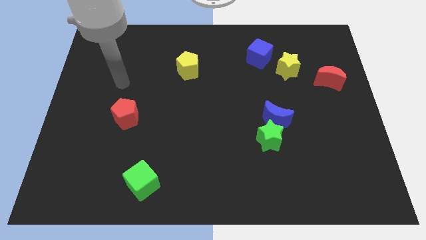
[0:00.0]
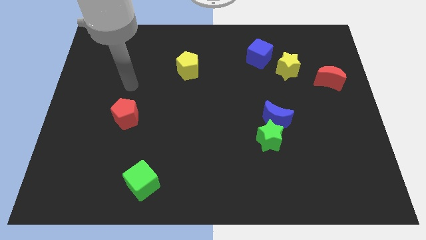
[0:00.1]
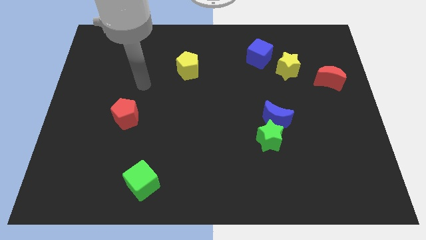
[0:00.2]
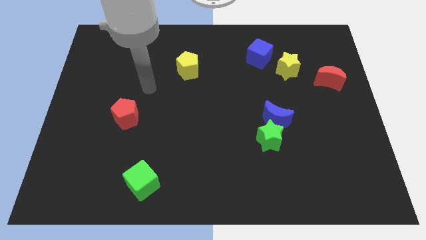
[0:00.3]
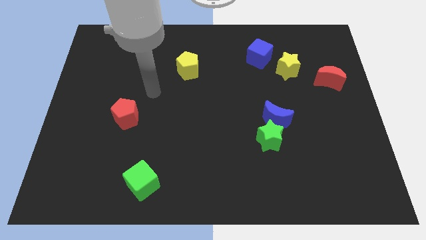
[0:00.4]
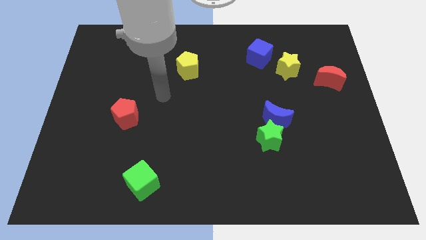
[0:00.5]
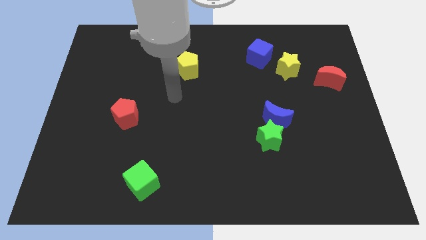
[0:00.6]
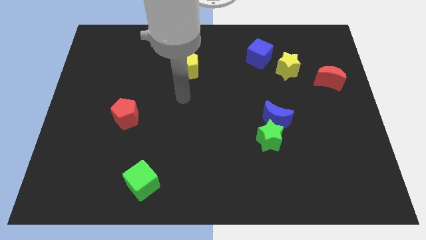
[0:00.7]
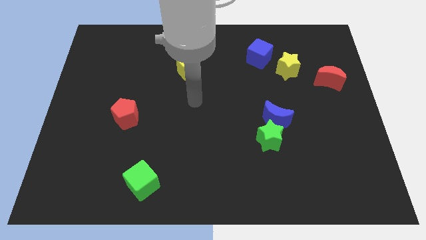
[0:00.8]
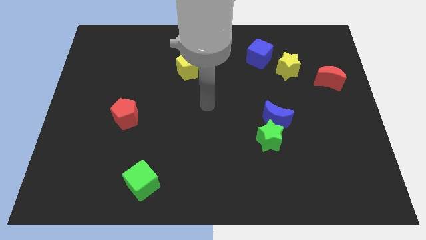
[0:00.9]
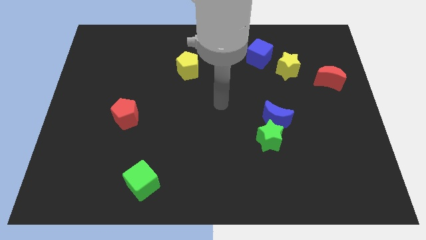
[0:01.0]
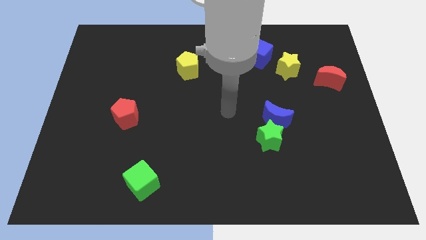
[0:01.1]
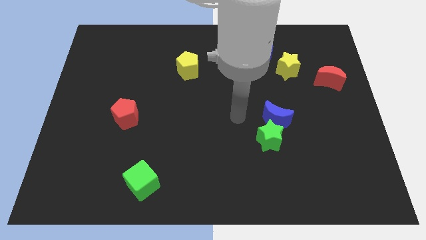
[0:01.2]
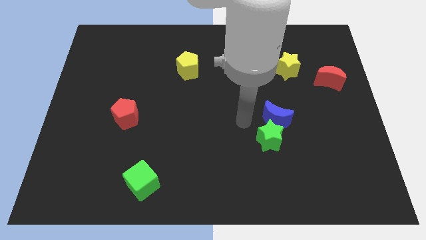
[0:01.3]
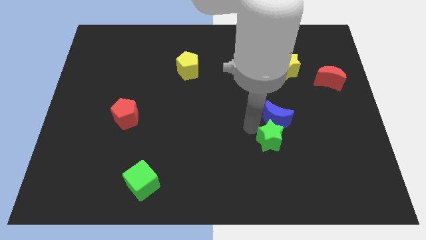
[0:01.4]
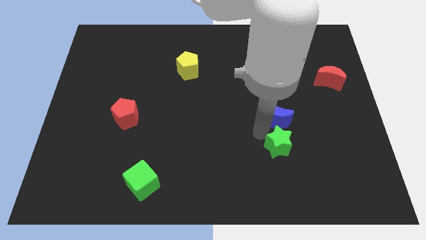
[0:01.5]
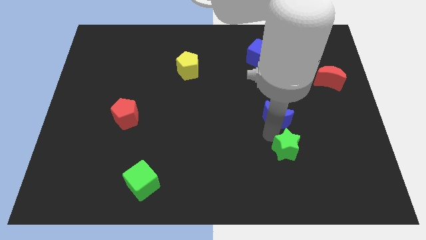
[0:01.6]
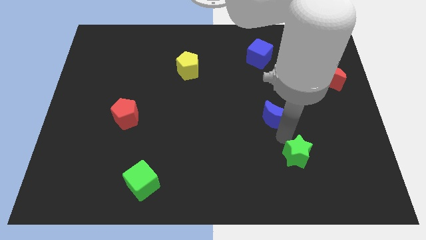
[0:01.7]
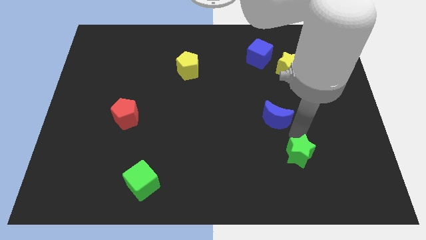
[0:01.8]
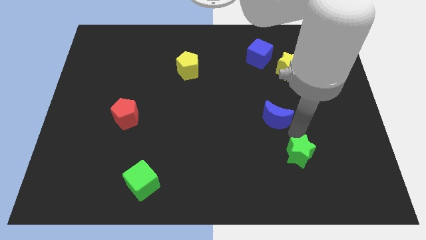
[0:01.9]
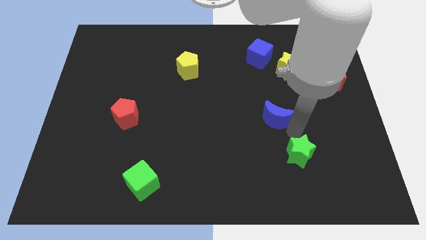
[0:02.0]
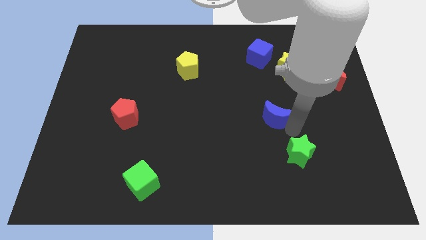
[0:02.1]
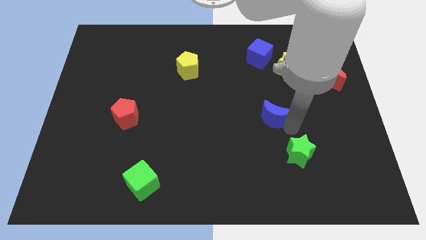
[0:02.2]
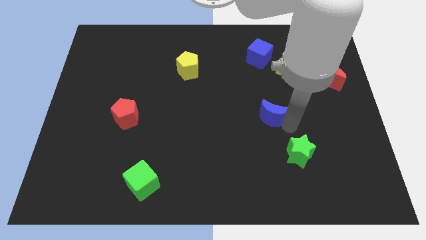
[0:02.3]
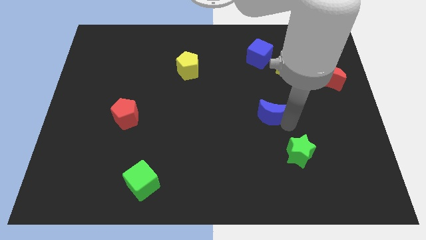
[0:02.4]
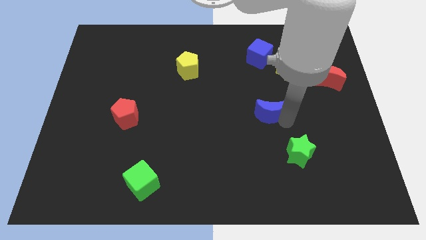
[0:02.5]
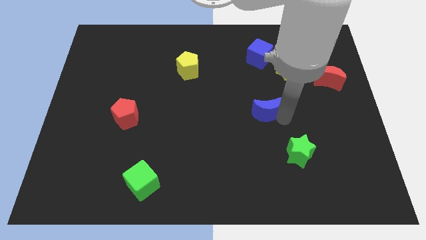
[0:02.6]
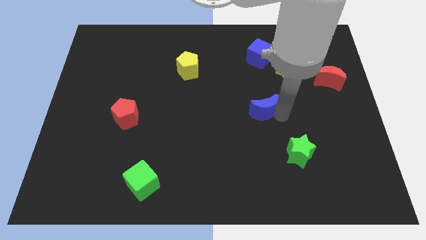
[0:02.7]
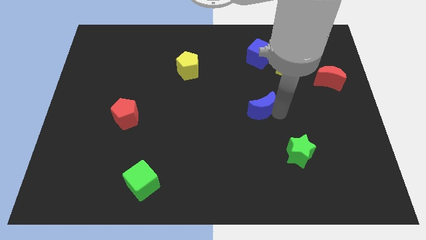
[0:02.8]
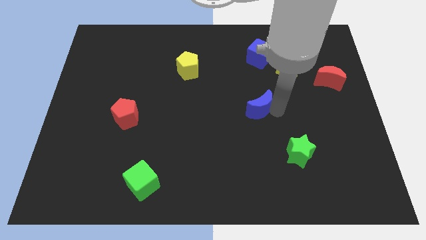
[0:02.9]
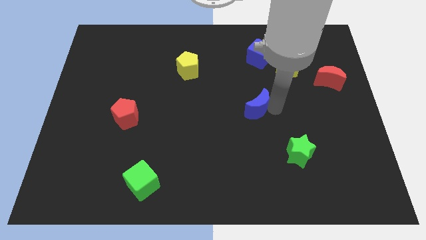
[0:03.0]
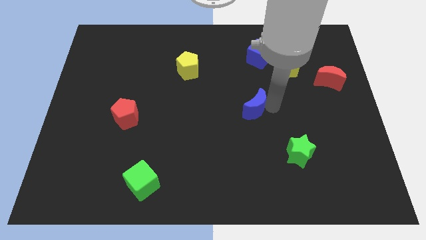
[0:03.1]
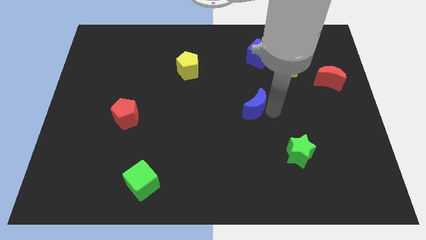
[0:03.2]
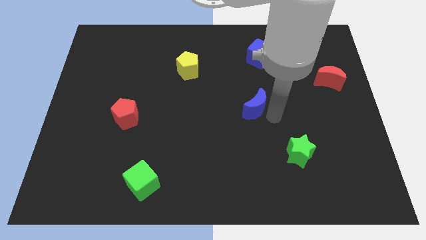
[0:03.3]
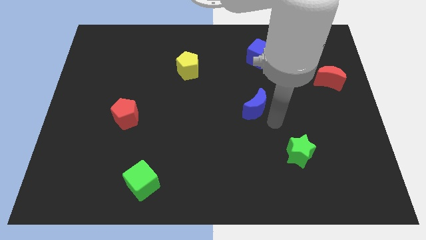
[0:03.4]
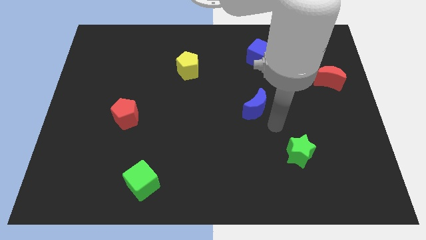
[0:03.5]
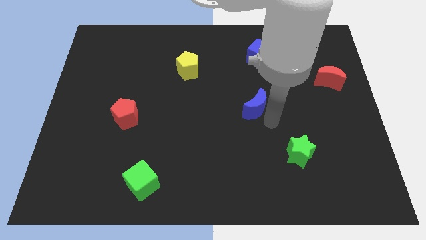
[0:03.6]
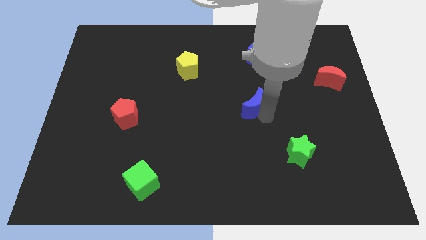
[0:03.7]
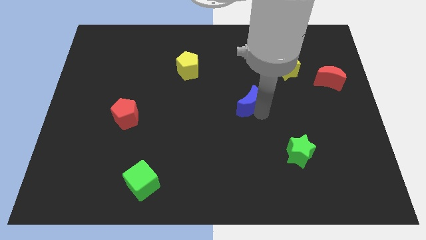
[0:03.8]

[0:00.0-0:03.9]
slide the blue moon slightly up and left diagonally

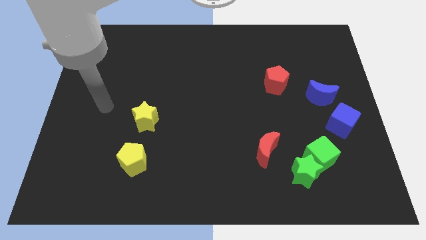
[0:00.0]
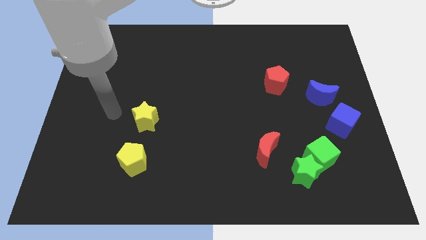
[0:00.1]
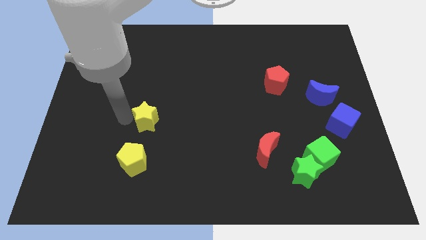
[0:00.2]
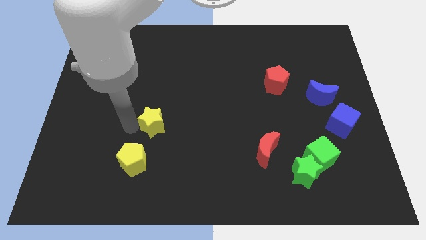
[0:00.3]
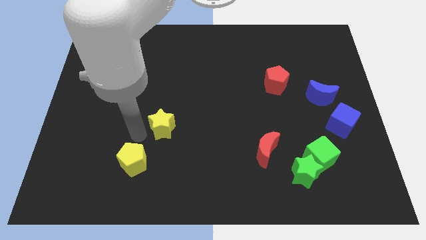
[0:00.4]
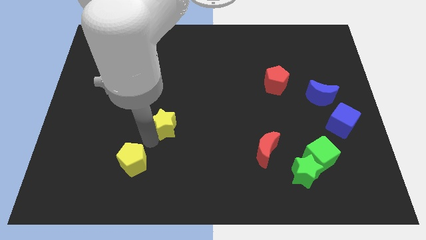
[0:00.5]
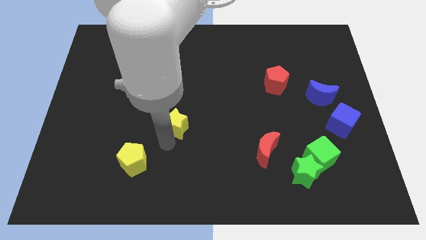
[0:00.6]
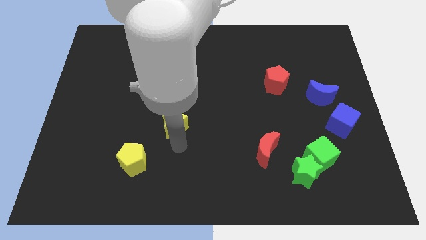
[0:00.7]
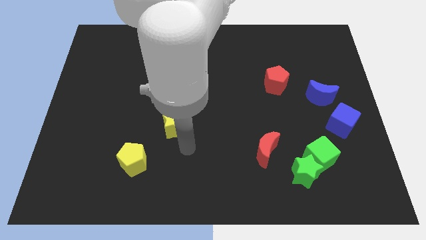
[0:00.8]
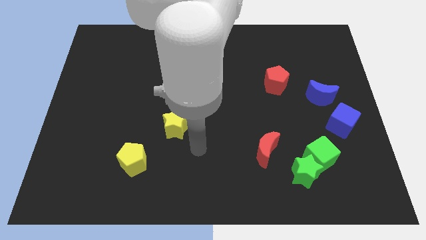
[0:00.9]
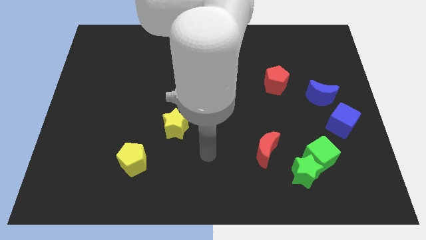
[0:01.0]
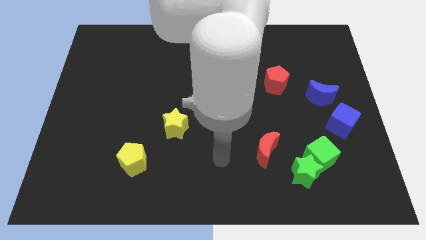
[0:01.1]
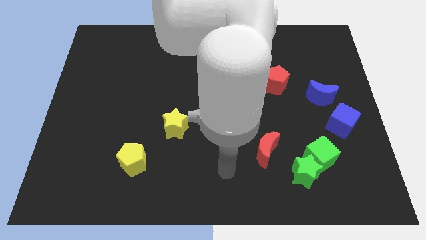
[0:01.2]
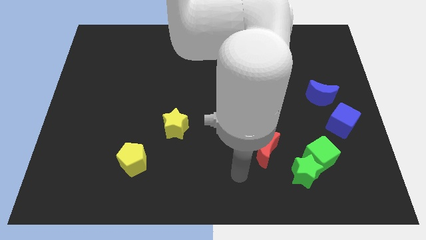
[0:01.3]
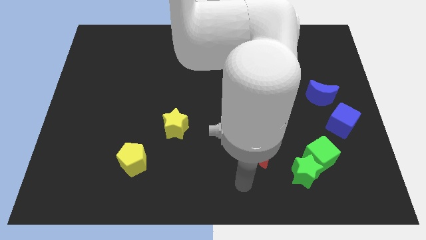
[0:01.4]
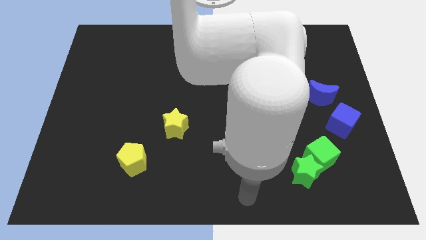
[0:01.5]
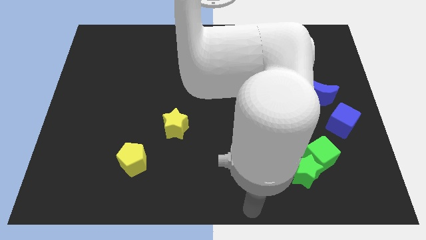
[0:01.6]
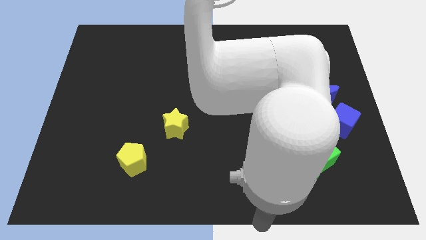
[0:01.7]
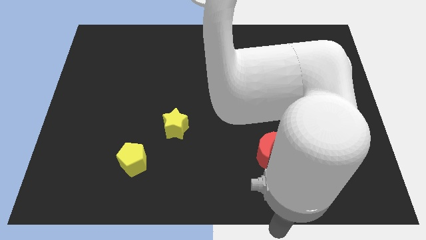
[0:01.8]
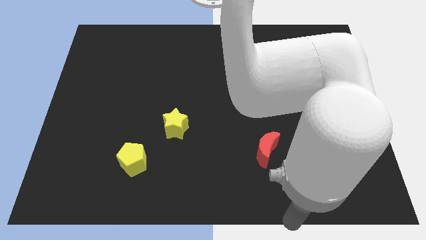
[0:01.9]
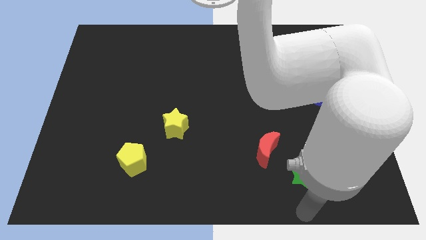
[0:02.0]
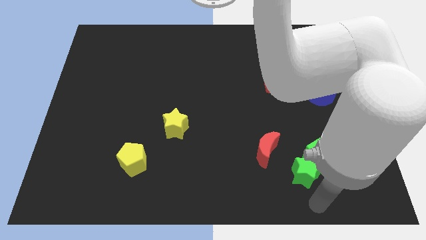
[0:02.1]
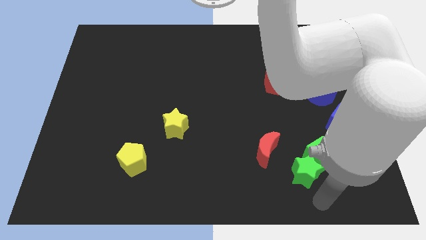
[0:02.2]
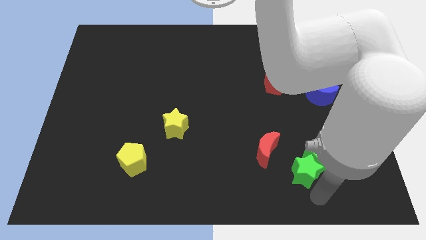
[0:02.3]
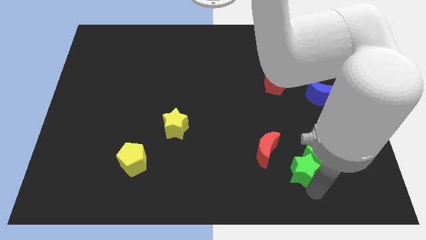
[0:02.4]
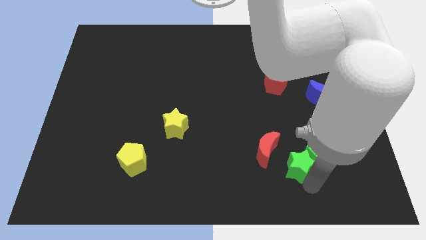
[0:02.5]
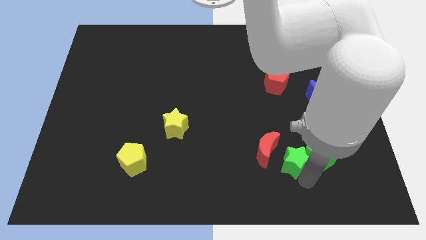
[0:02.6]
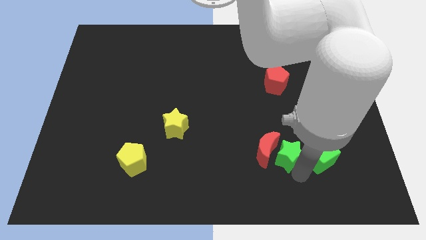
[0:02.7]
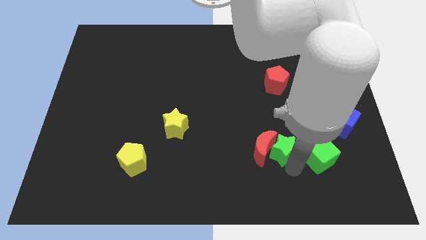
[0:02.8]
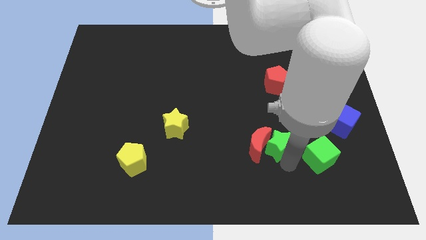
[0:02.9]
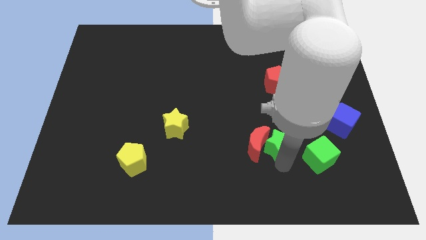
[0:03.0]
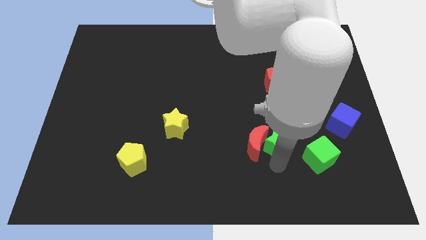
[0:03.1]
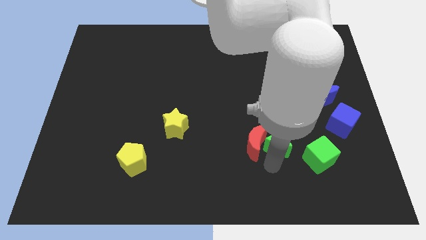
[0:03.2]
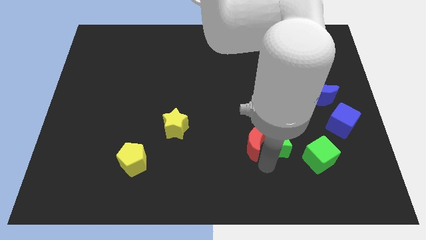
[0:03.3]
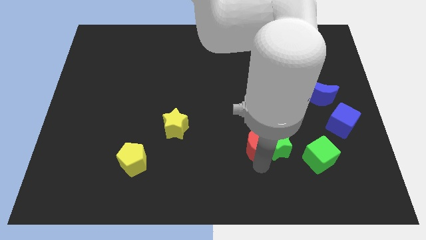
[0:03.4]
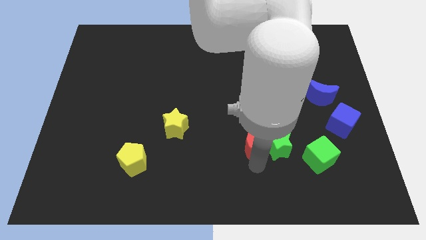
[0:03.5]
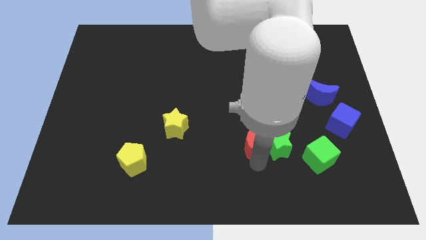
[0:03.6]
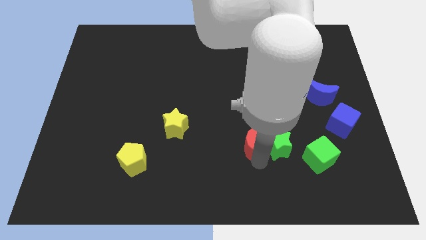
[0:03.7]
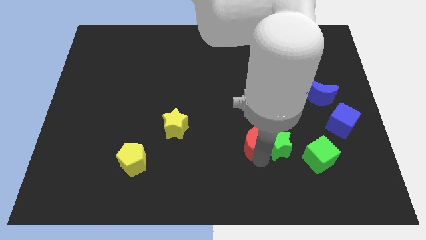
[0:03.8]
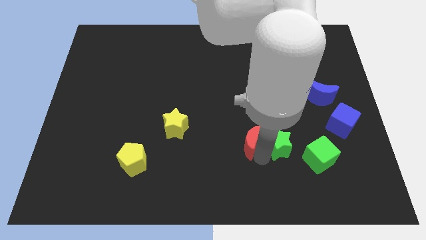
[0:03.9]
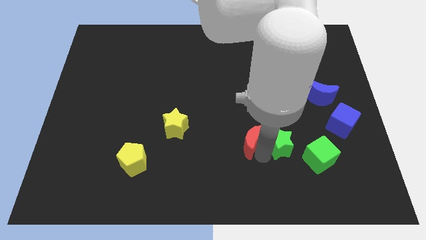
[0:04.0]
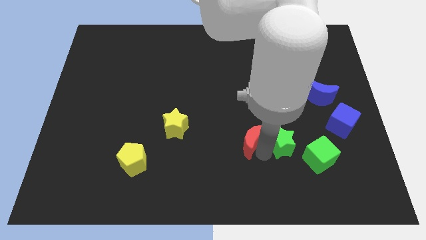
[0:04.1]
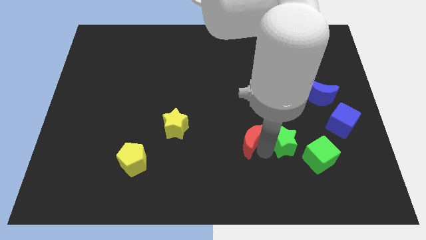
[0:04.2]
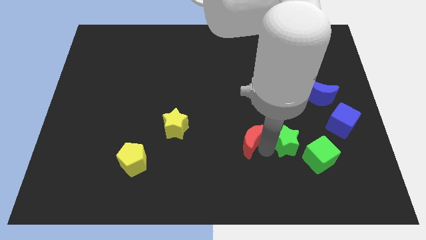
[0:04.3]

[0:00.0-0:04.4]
slightly slide the green star up
